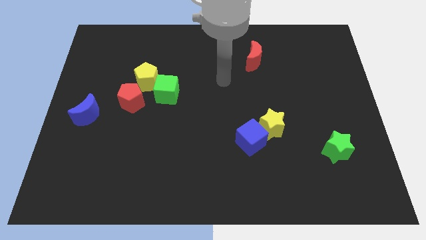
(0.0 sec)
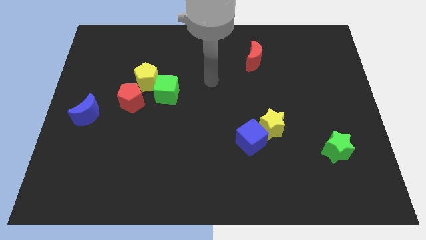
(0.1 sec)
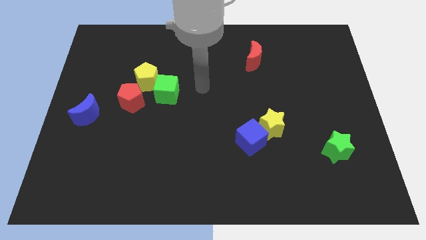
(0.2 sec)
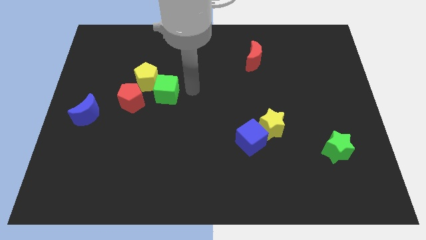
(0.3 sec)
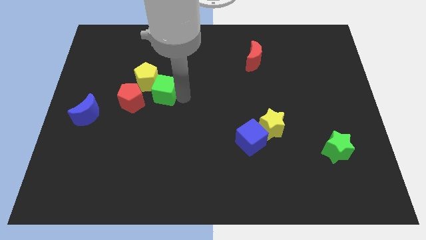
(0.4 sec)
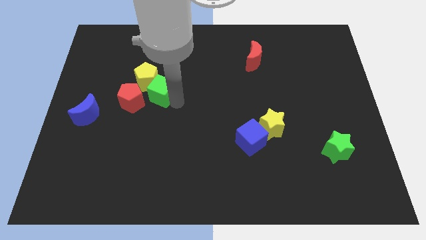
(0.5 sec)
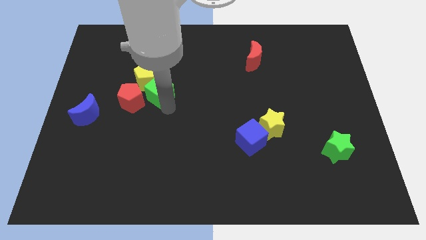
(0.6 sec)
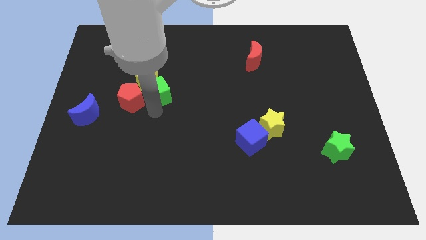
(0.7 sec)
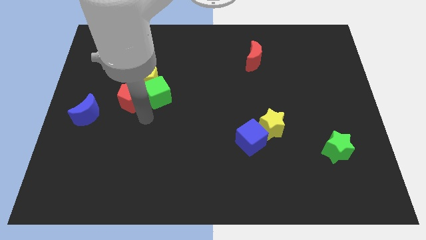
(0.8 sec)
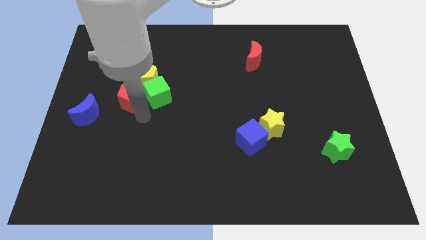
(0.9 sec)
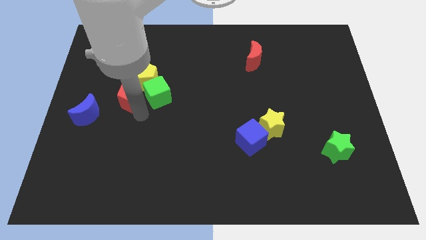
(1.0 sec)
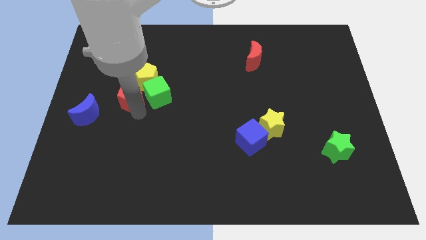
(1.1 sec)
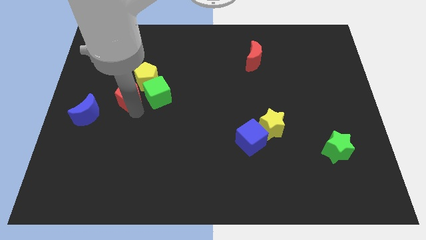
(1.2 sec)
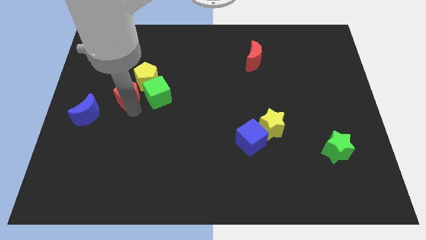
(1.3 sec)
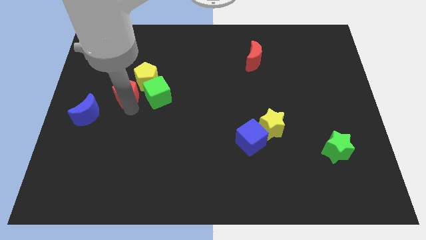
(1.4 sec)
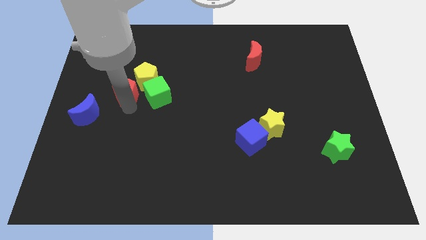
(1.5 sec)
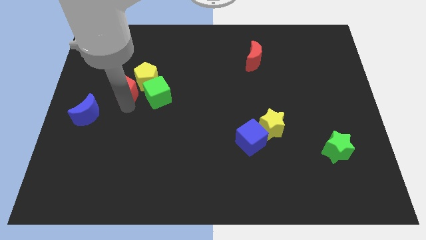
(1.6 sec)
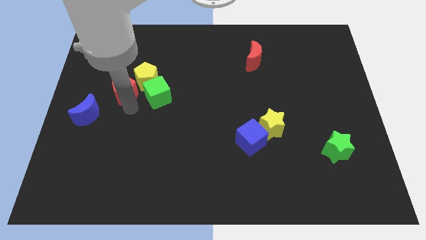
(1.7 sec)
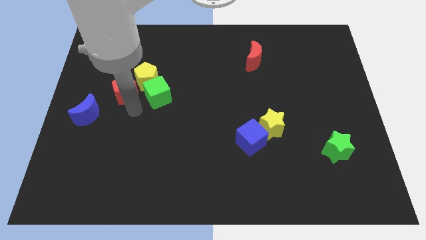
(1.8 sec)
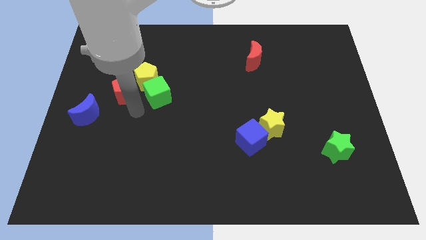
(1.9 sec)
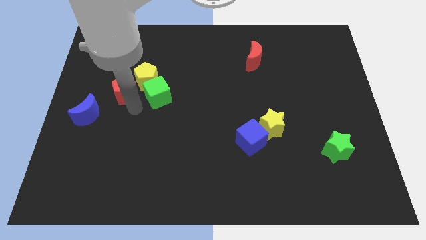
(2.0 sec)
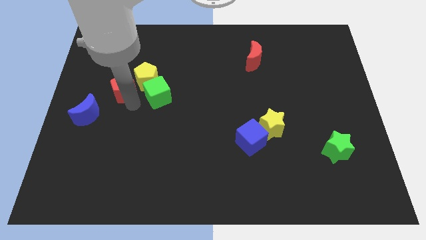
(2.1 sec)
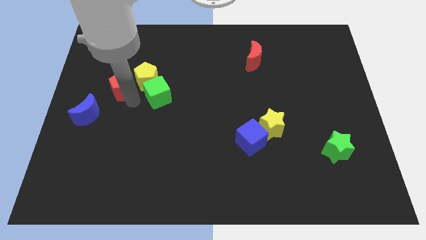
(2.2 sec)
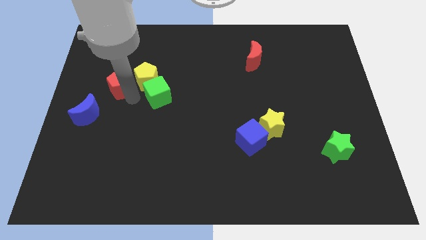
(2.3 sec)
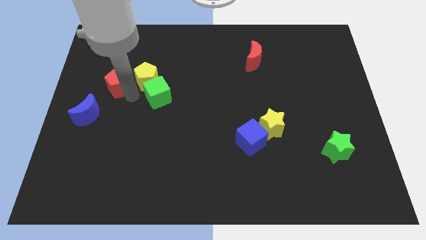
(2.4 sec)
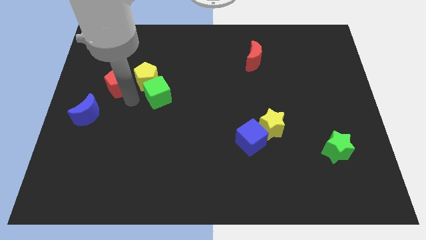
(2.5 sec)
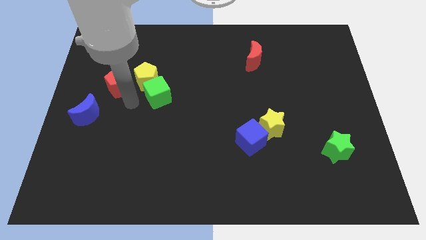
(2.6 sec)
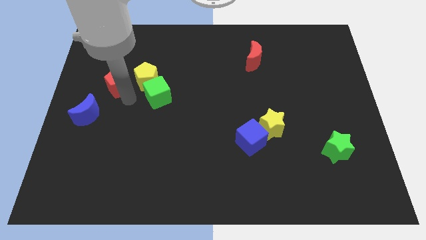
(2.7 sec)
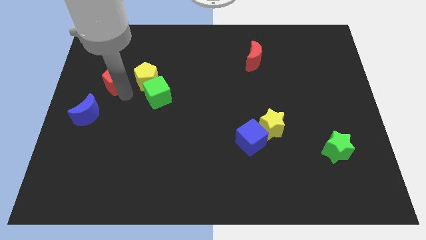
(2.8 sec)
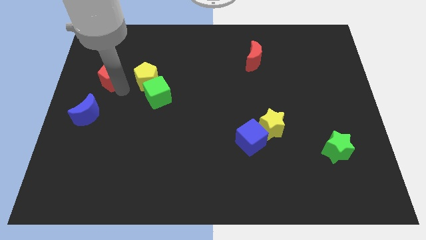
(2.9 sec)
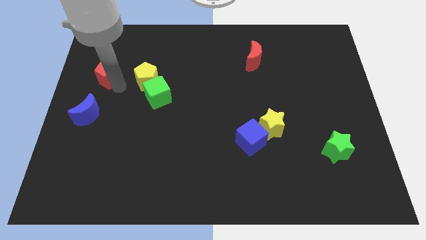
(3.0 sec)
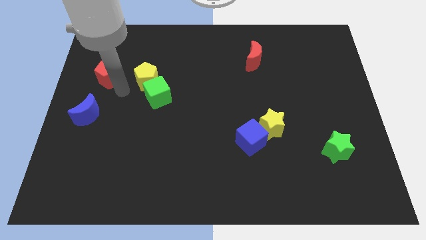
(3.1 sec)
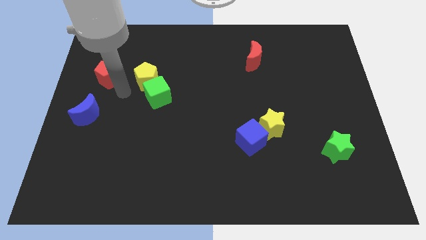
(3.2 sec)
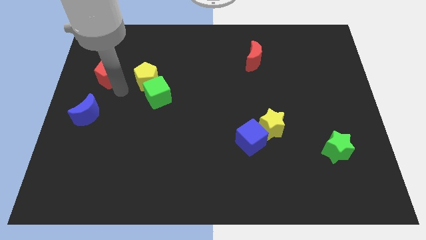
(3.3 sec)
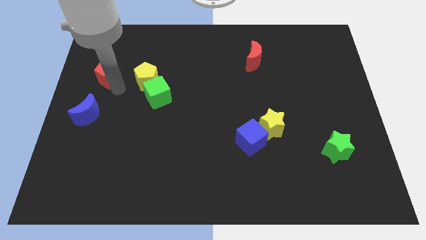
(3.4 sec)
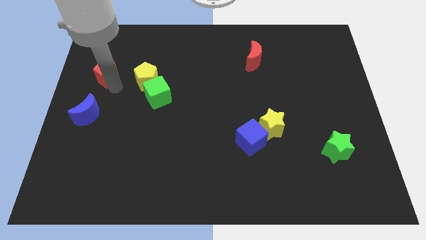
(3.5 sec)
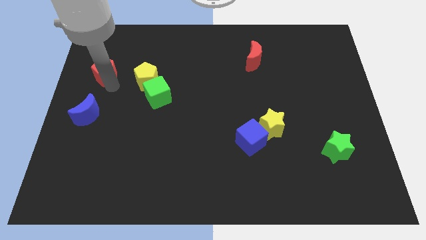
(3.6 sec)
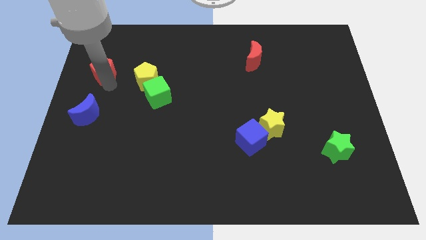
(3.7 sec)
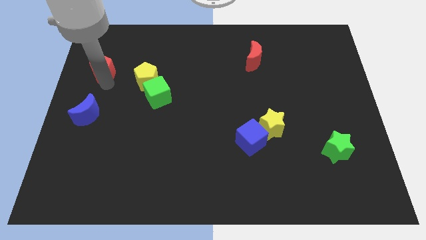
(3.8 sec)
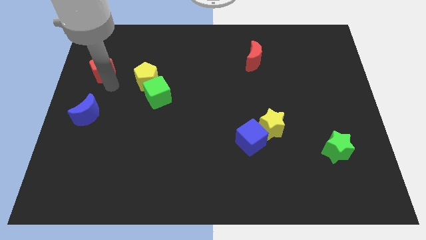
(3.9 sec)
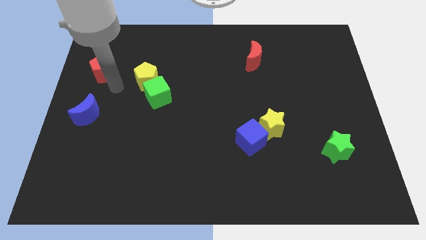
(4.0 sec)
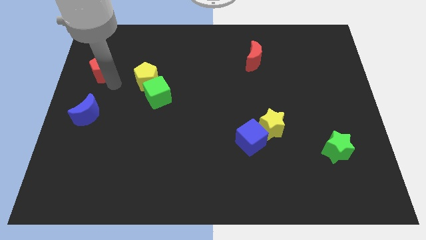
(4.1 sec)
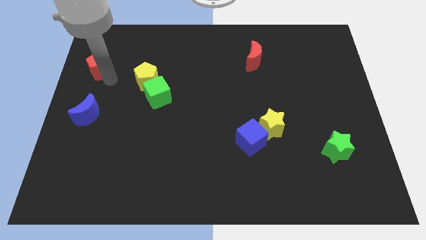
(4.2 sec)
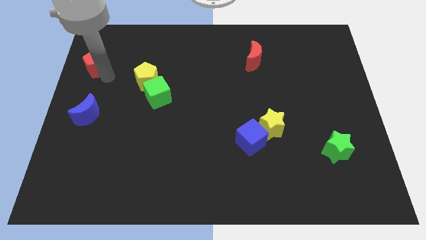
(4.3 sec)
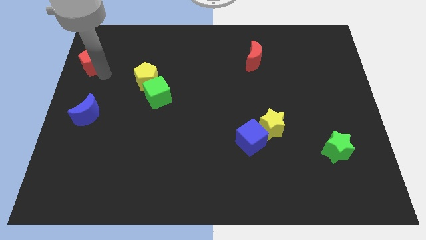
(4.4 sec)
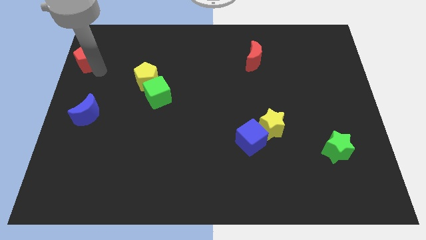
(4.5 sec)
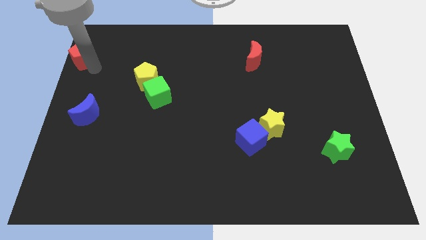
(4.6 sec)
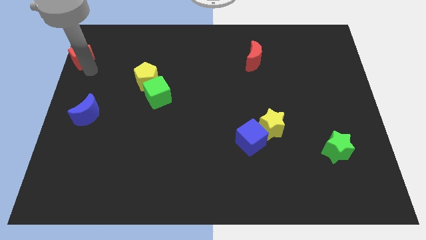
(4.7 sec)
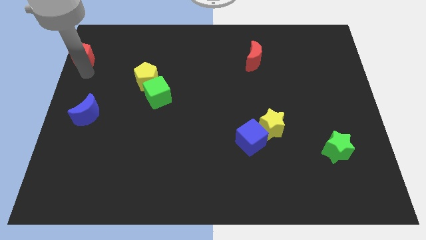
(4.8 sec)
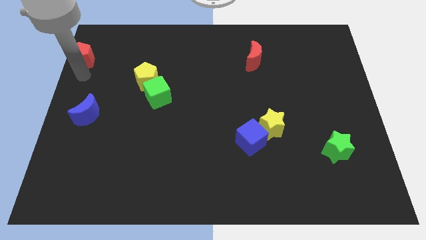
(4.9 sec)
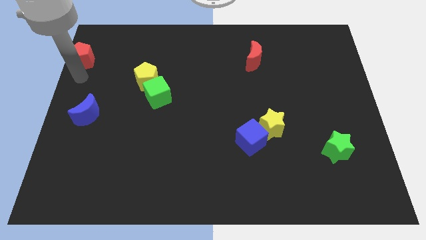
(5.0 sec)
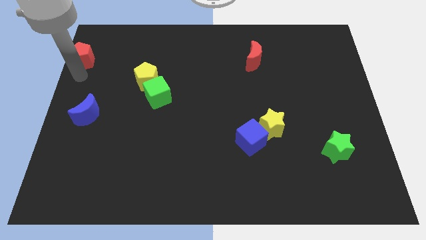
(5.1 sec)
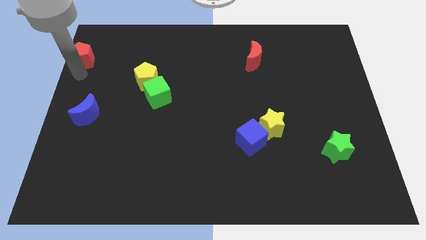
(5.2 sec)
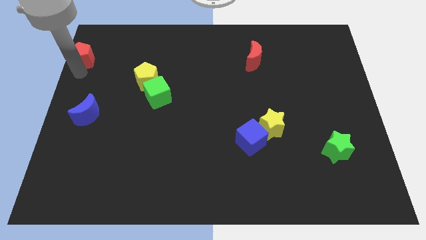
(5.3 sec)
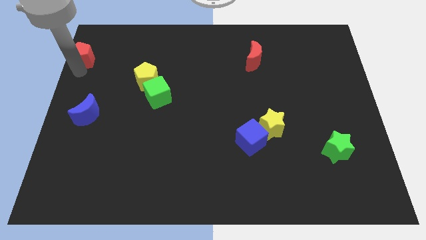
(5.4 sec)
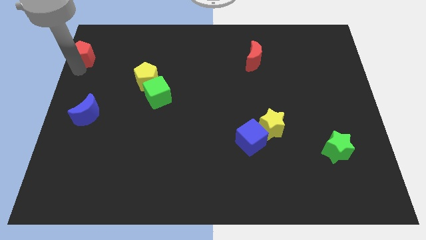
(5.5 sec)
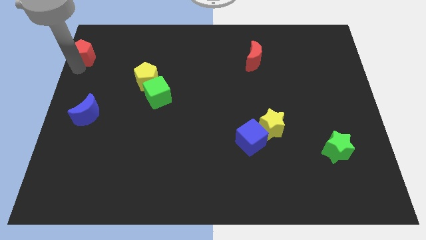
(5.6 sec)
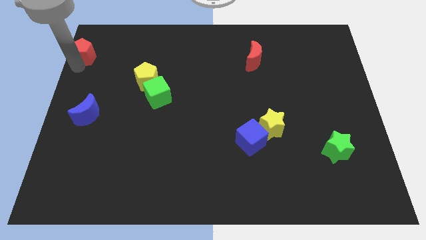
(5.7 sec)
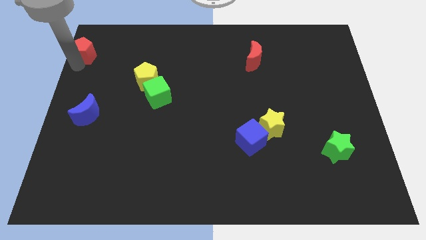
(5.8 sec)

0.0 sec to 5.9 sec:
push the red pentagon to the top left corner
